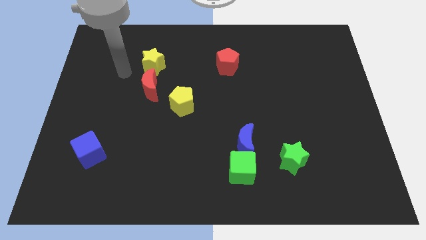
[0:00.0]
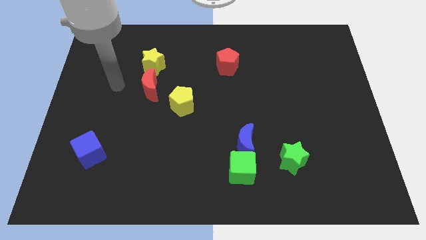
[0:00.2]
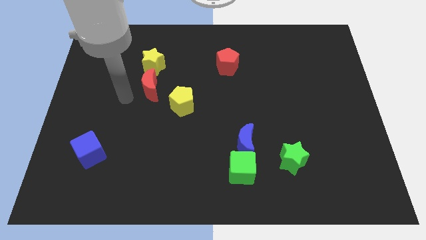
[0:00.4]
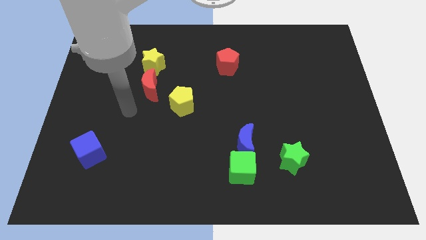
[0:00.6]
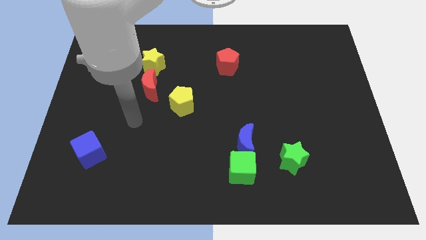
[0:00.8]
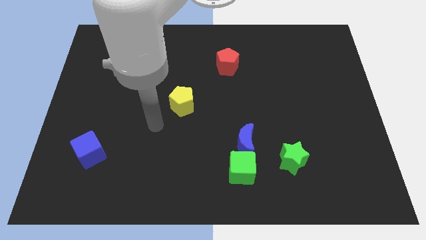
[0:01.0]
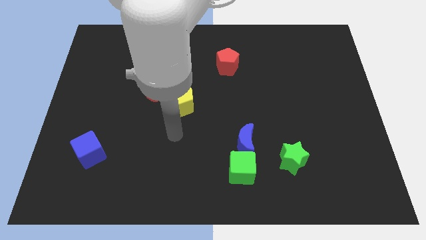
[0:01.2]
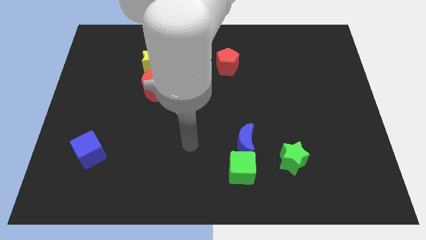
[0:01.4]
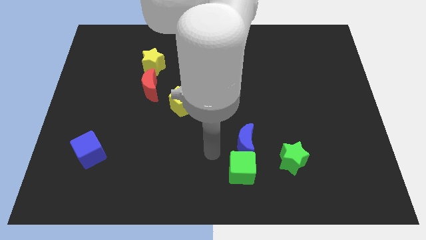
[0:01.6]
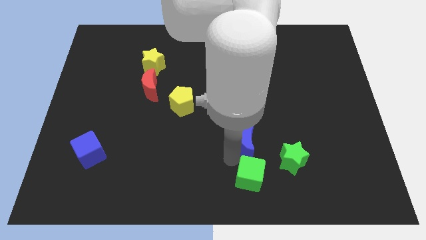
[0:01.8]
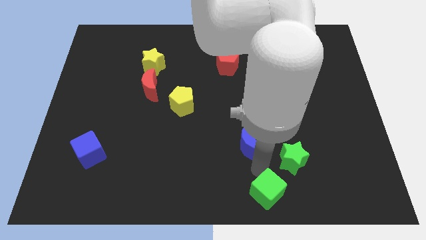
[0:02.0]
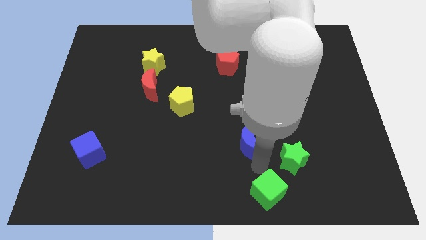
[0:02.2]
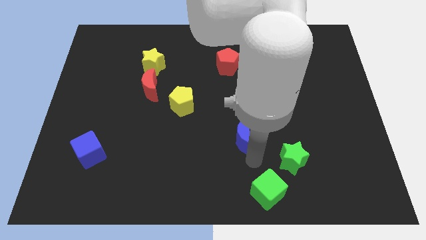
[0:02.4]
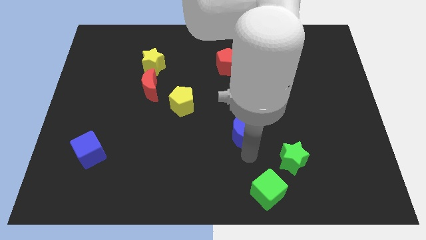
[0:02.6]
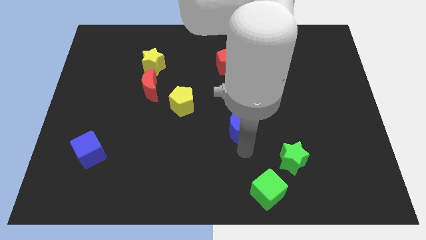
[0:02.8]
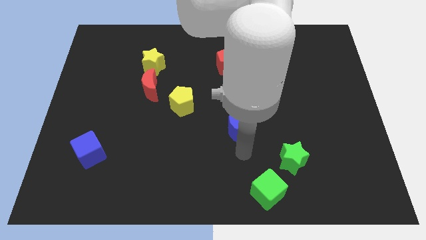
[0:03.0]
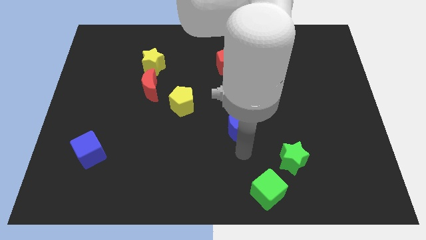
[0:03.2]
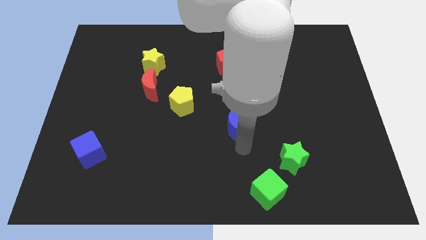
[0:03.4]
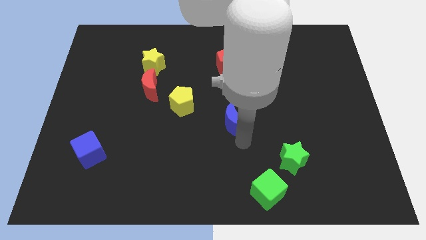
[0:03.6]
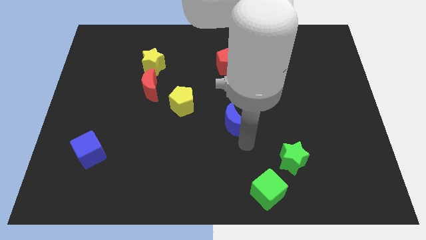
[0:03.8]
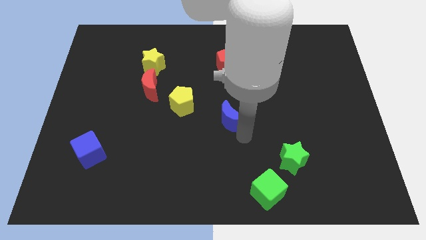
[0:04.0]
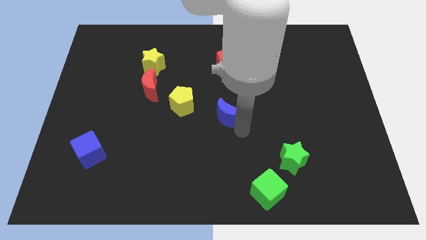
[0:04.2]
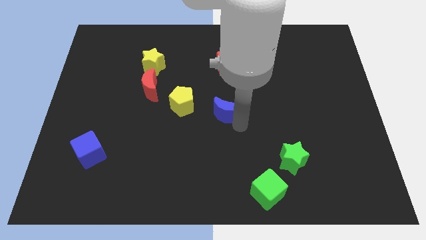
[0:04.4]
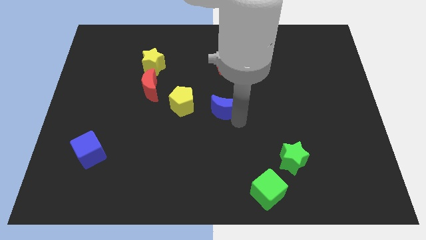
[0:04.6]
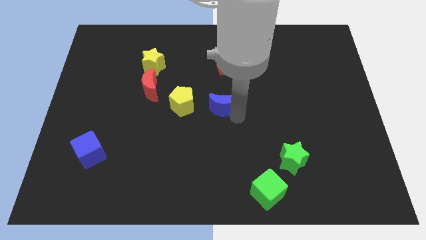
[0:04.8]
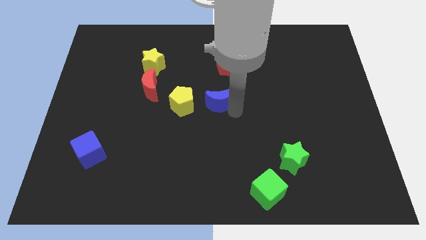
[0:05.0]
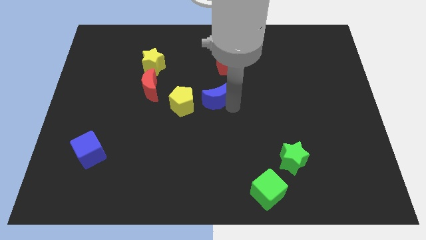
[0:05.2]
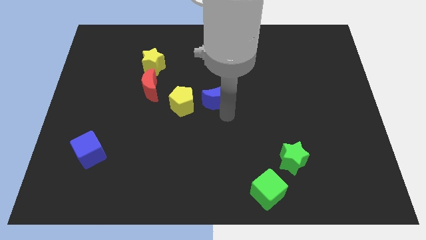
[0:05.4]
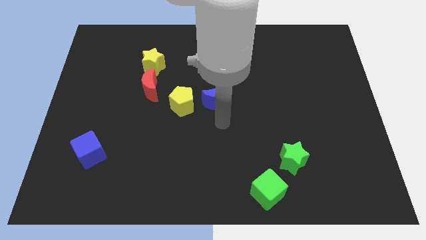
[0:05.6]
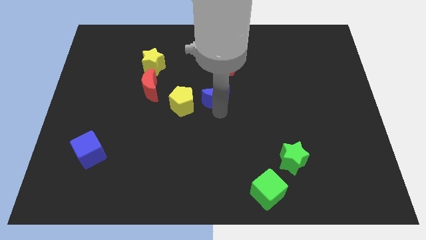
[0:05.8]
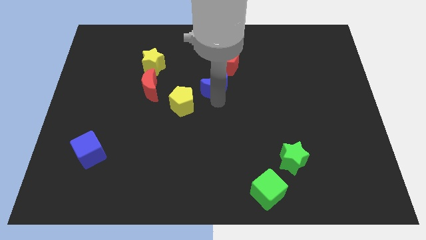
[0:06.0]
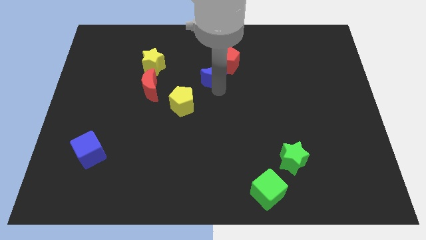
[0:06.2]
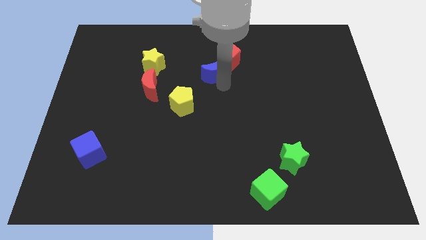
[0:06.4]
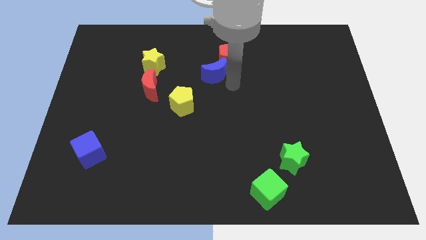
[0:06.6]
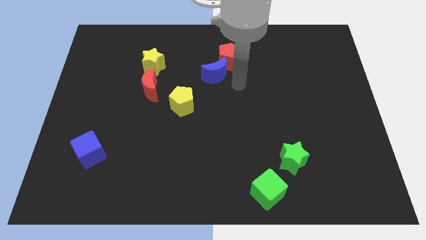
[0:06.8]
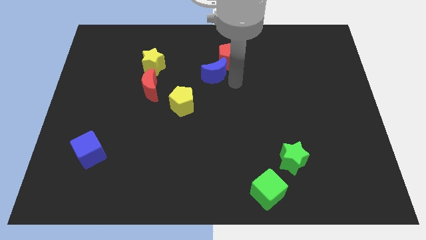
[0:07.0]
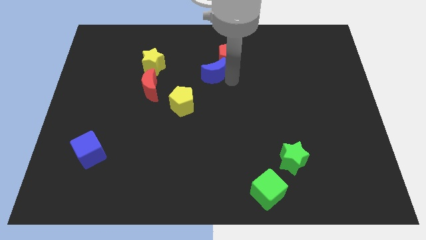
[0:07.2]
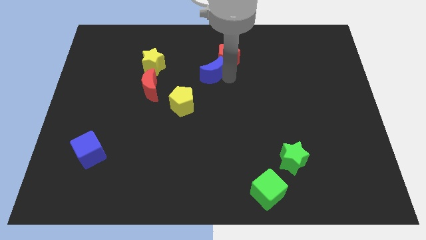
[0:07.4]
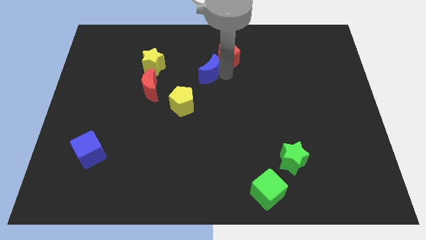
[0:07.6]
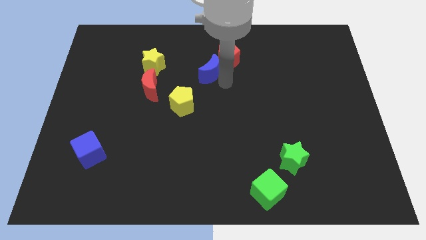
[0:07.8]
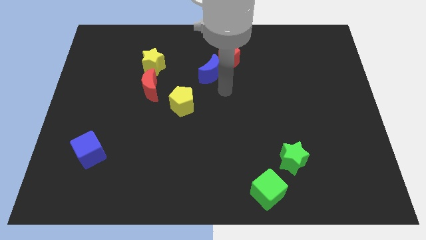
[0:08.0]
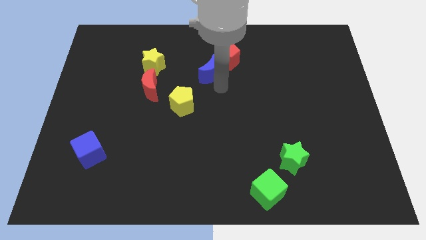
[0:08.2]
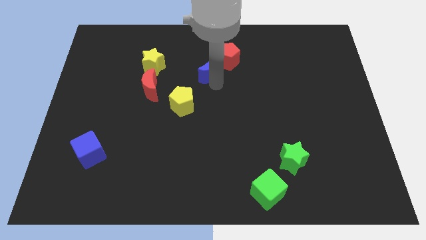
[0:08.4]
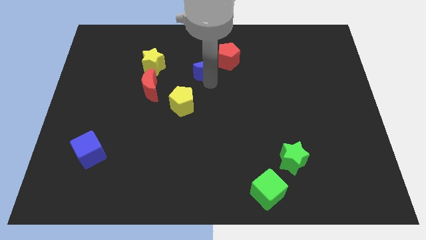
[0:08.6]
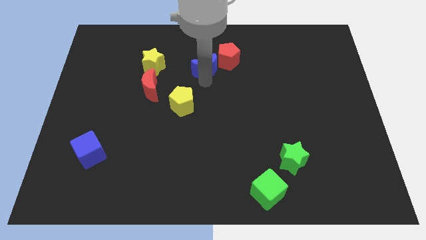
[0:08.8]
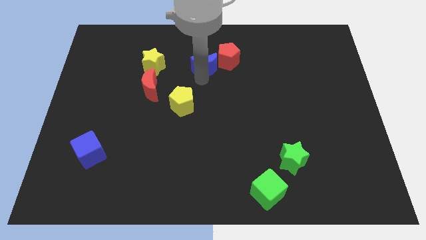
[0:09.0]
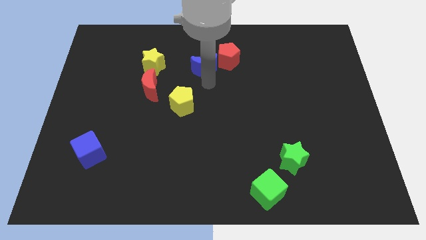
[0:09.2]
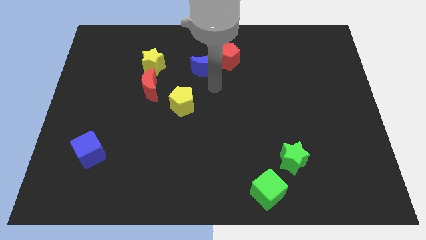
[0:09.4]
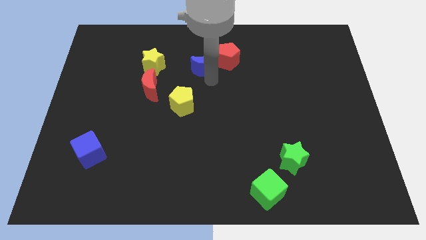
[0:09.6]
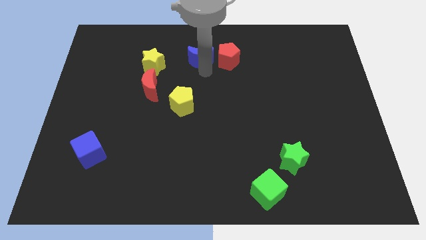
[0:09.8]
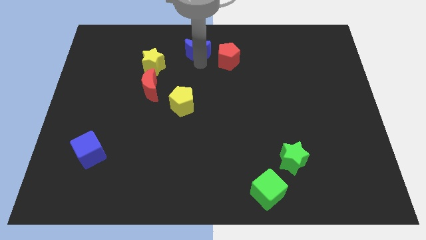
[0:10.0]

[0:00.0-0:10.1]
slide the blue moon to the top side

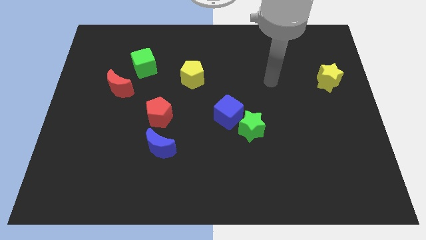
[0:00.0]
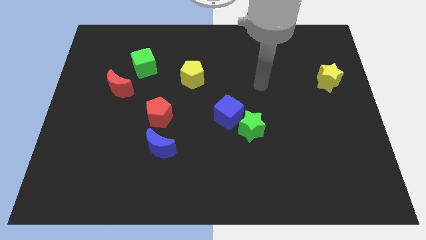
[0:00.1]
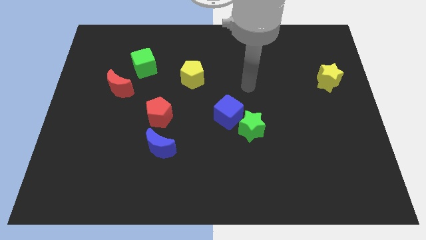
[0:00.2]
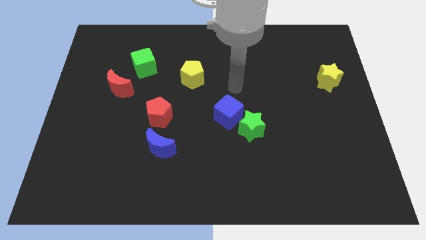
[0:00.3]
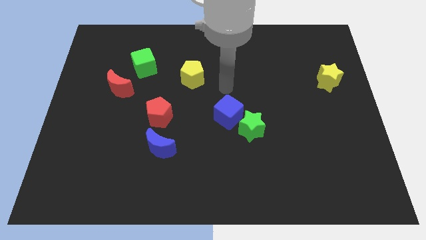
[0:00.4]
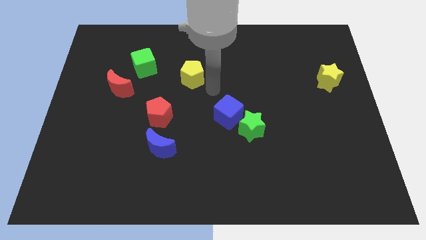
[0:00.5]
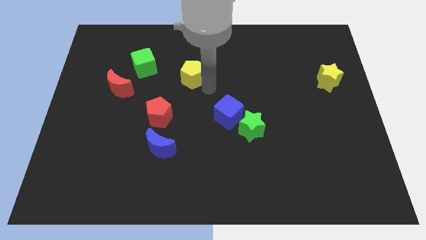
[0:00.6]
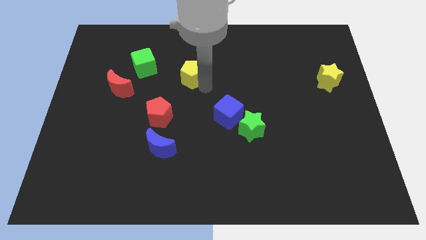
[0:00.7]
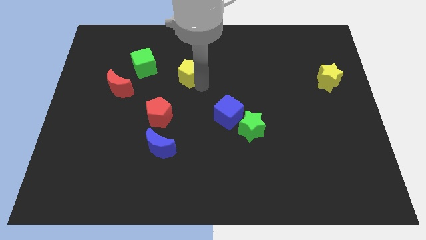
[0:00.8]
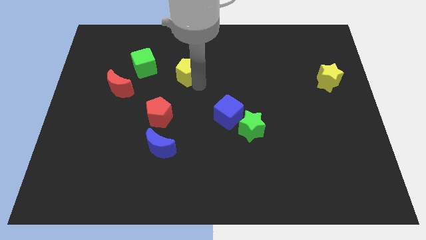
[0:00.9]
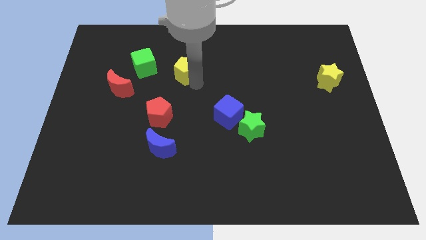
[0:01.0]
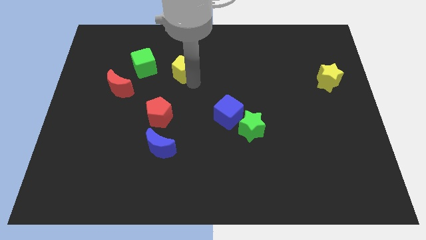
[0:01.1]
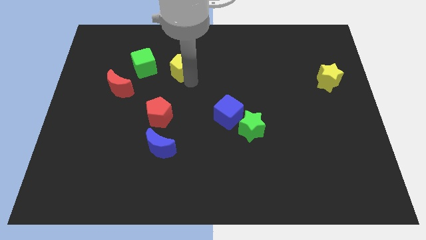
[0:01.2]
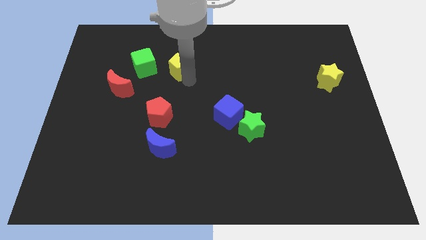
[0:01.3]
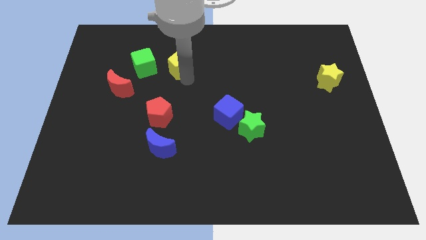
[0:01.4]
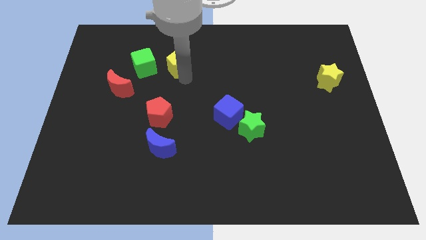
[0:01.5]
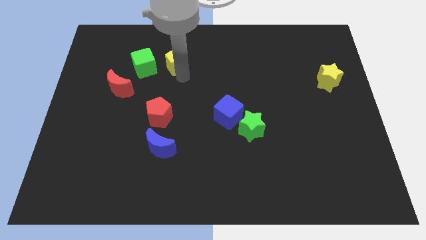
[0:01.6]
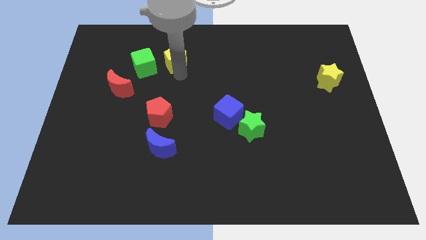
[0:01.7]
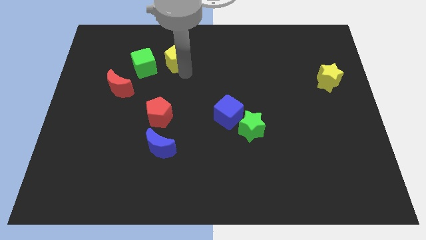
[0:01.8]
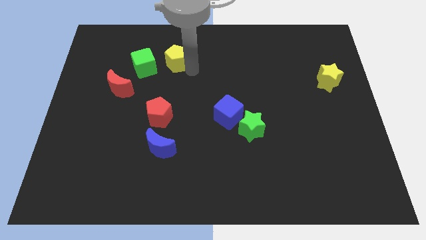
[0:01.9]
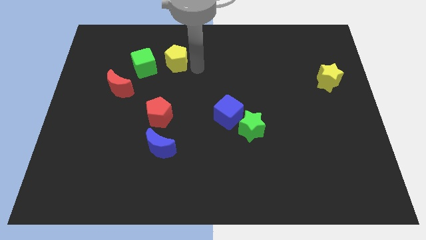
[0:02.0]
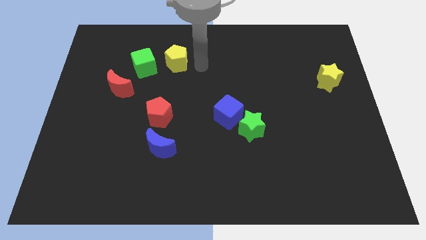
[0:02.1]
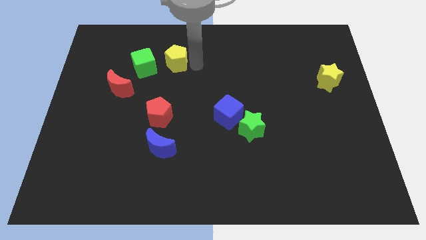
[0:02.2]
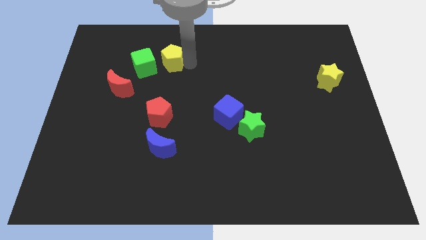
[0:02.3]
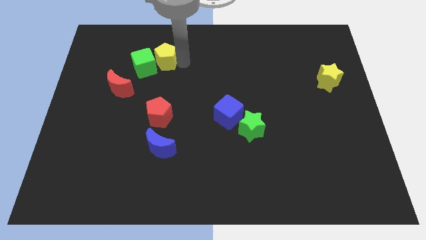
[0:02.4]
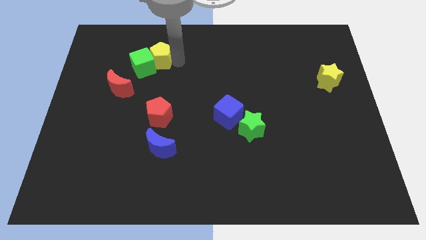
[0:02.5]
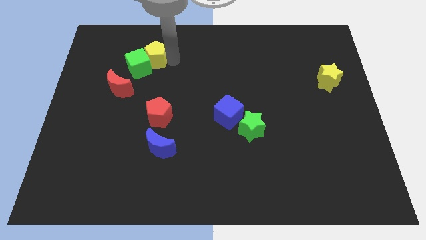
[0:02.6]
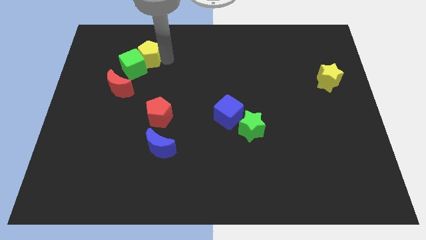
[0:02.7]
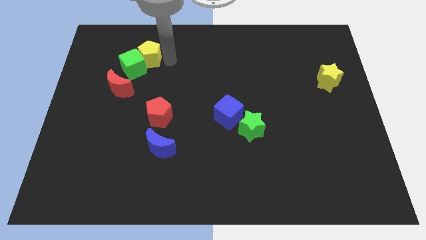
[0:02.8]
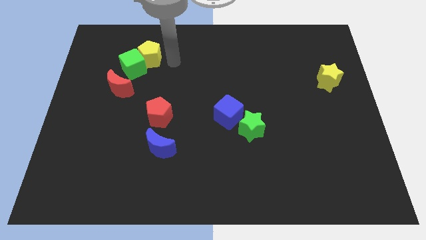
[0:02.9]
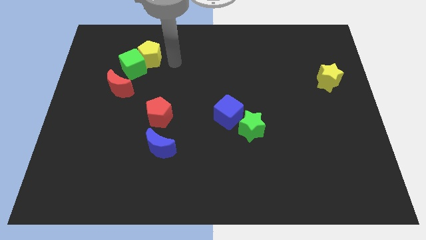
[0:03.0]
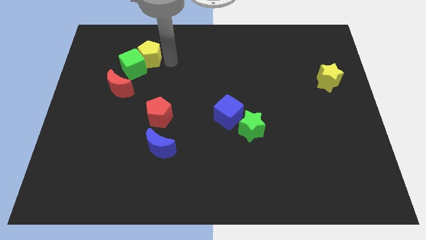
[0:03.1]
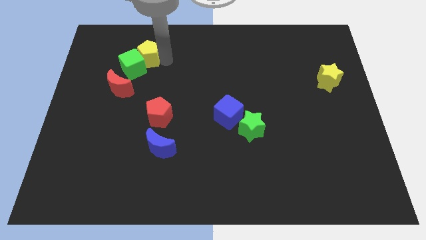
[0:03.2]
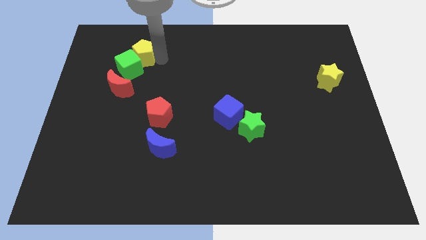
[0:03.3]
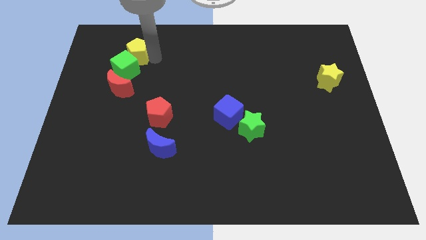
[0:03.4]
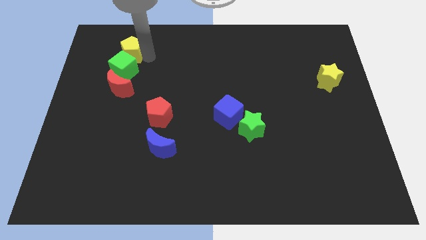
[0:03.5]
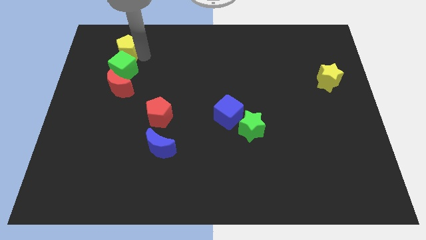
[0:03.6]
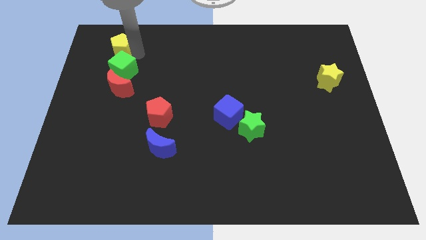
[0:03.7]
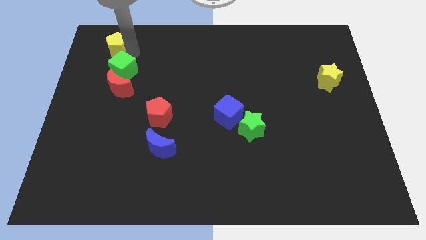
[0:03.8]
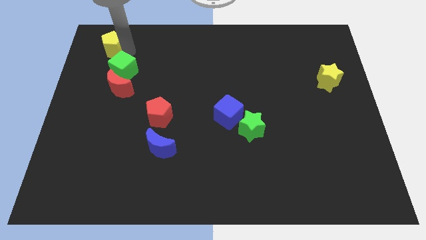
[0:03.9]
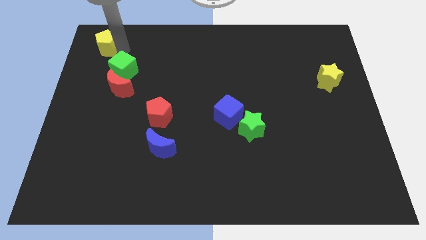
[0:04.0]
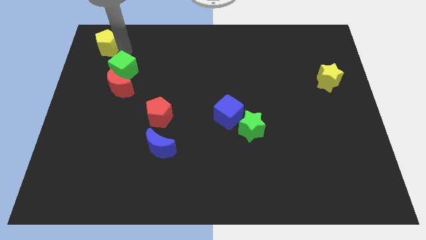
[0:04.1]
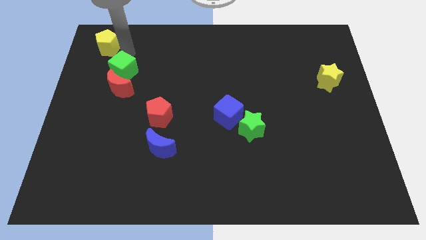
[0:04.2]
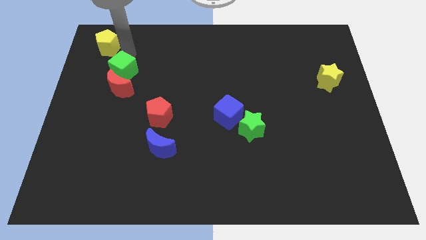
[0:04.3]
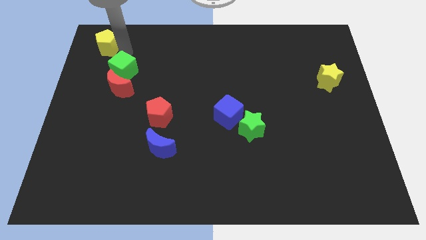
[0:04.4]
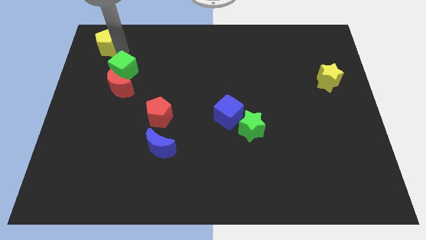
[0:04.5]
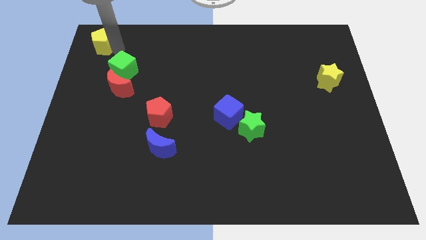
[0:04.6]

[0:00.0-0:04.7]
slide the yellow pentagon to the top left
